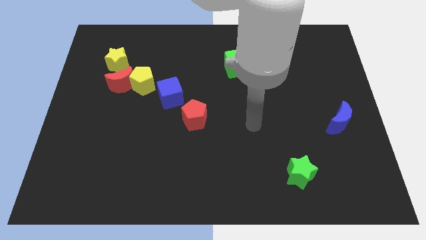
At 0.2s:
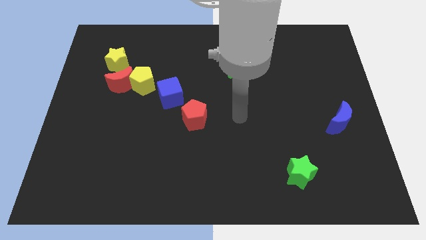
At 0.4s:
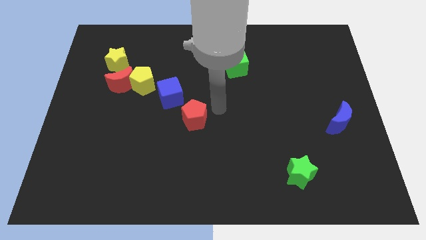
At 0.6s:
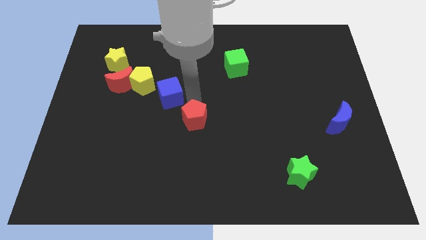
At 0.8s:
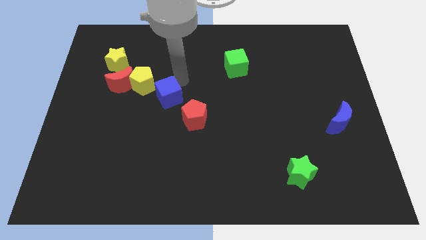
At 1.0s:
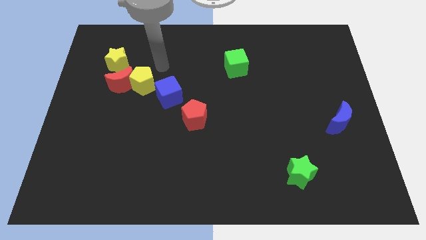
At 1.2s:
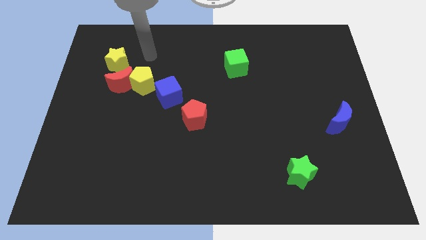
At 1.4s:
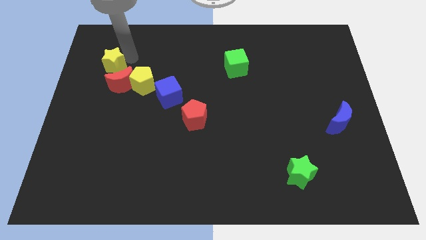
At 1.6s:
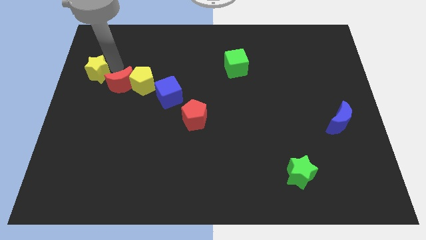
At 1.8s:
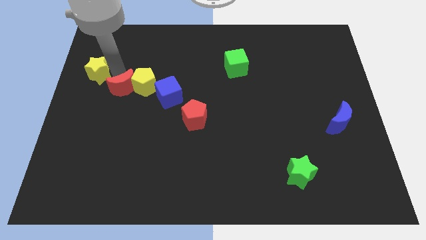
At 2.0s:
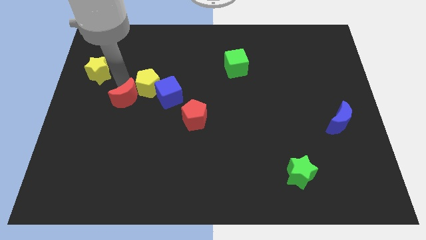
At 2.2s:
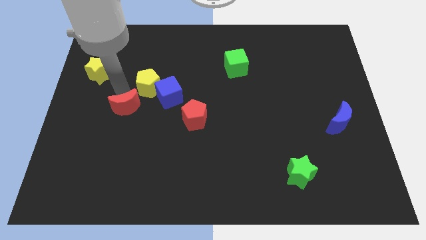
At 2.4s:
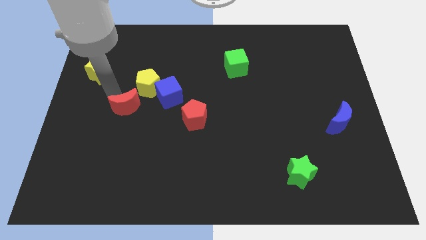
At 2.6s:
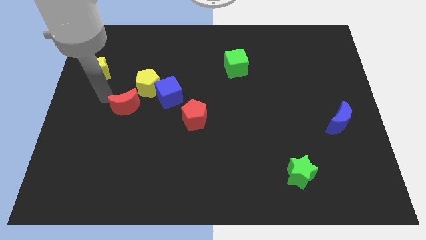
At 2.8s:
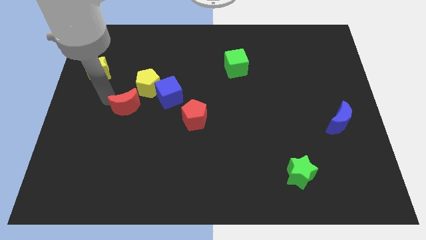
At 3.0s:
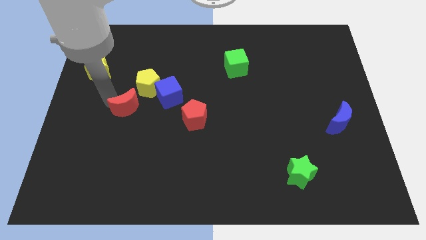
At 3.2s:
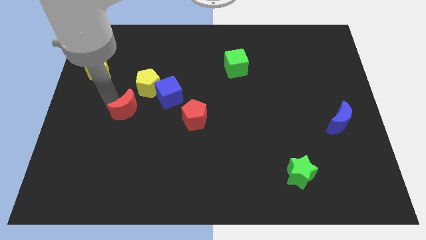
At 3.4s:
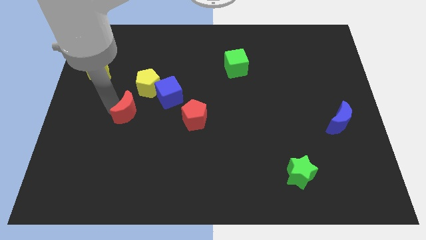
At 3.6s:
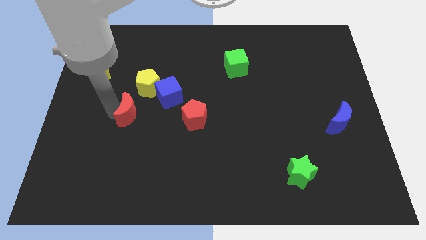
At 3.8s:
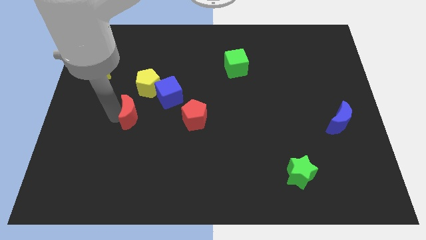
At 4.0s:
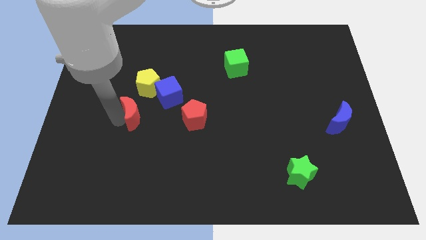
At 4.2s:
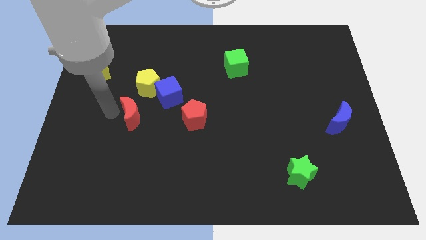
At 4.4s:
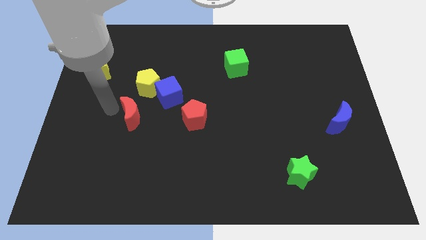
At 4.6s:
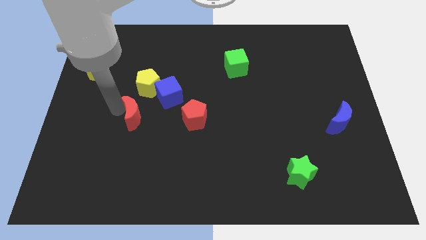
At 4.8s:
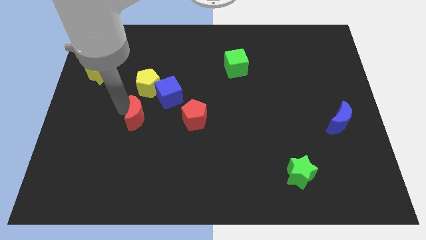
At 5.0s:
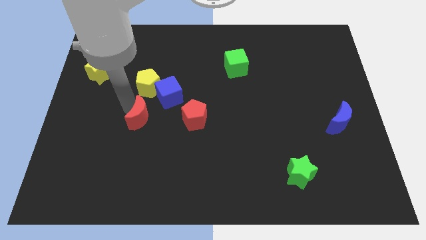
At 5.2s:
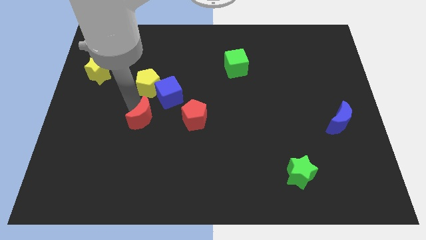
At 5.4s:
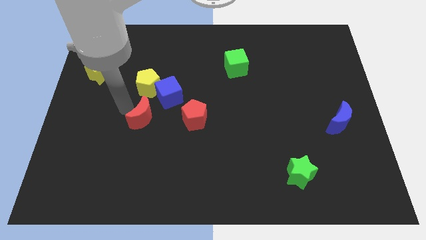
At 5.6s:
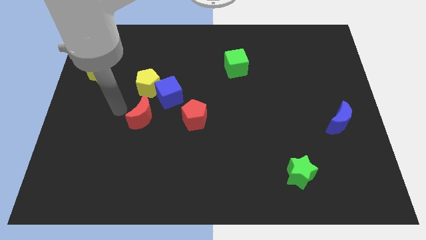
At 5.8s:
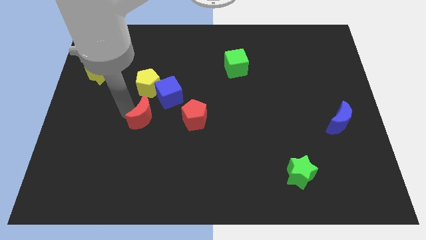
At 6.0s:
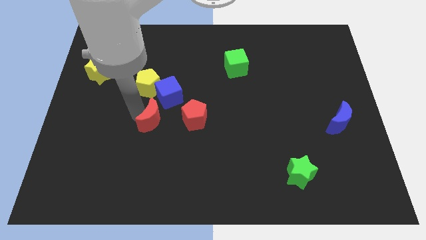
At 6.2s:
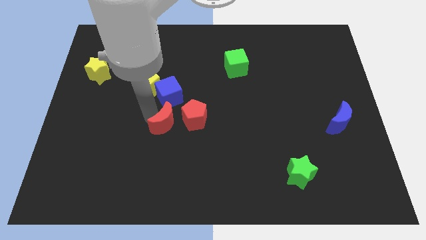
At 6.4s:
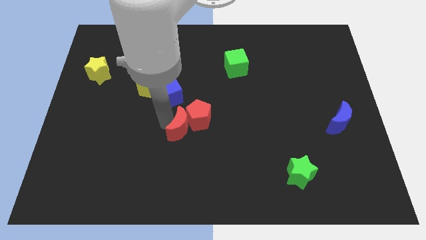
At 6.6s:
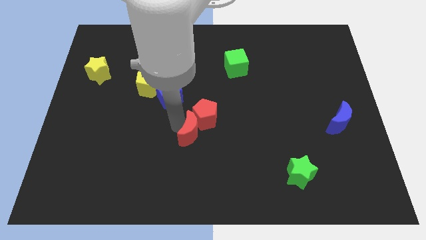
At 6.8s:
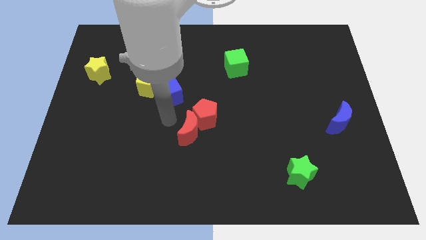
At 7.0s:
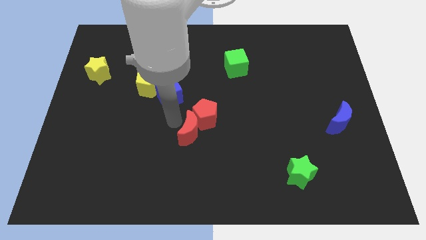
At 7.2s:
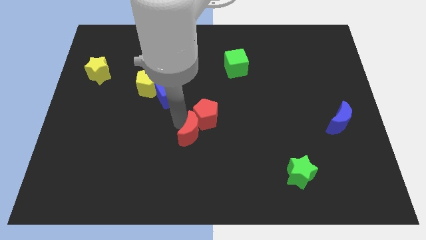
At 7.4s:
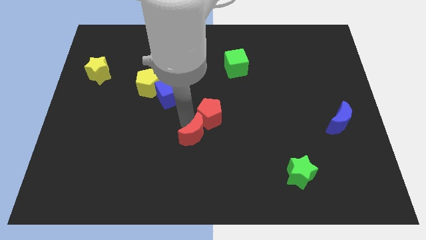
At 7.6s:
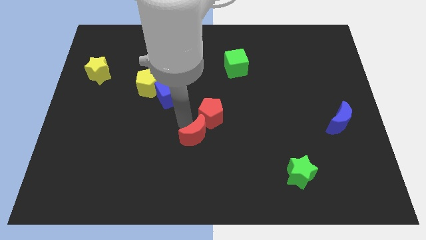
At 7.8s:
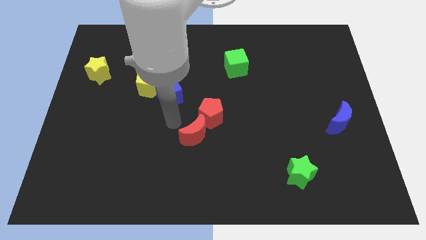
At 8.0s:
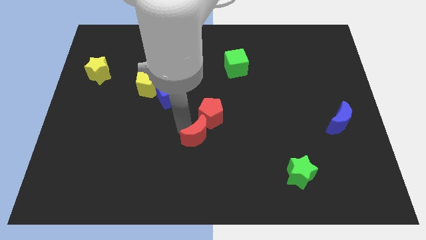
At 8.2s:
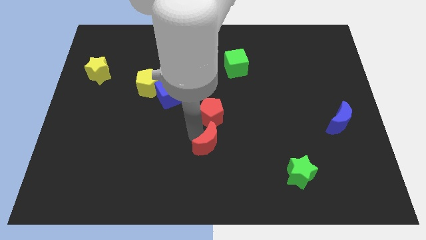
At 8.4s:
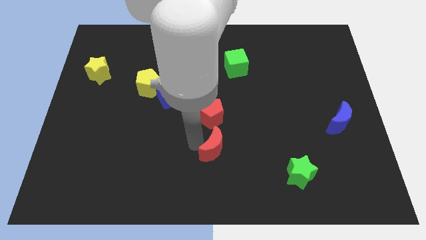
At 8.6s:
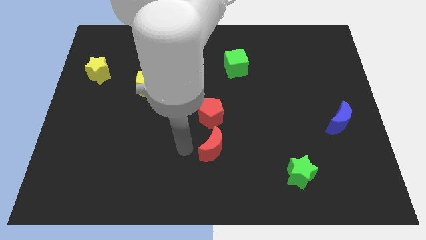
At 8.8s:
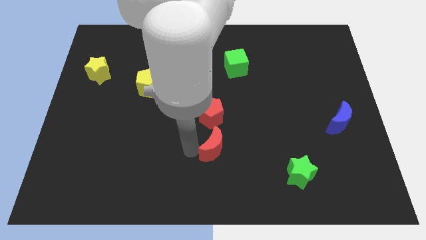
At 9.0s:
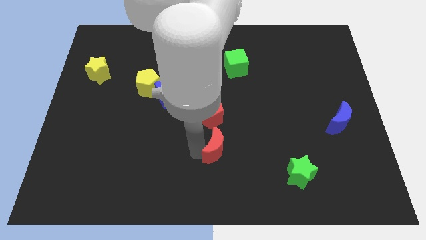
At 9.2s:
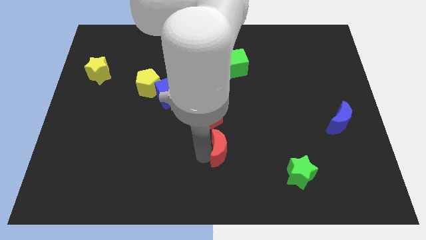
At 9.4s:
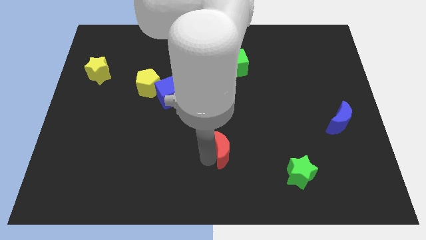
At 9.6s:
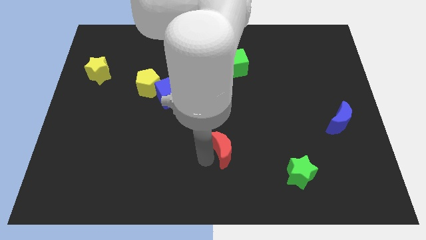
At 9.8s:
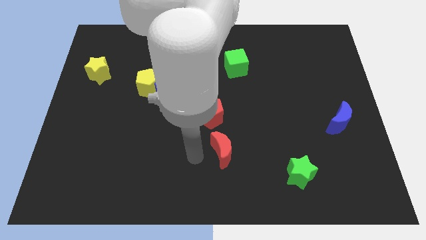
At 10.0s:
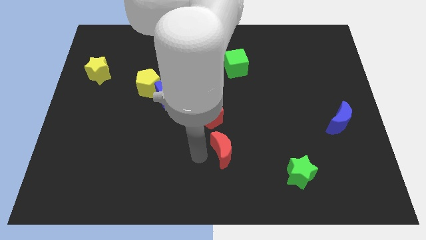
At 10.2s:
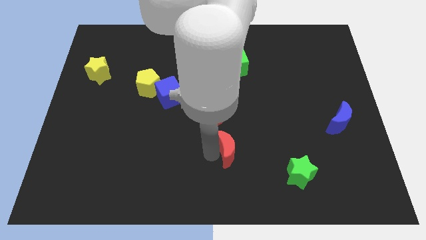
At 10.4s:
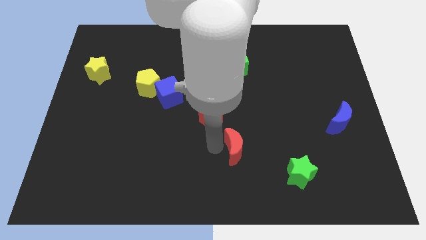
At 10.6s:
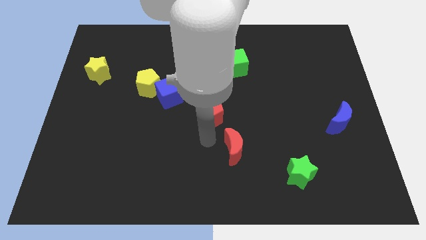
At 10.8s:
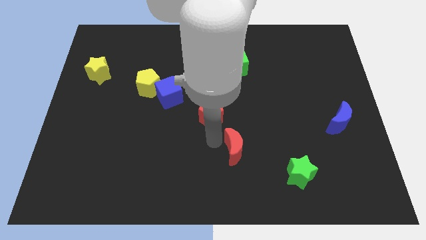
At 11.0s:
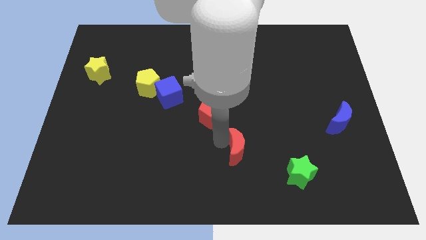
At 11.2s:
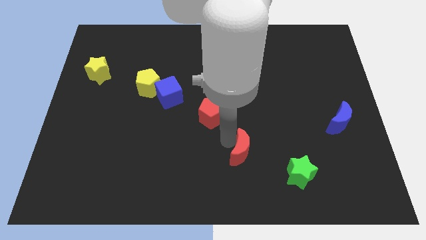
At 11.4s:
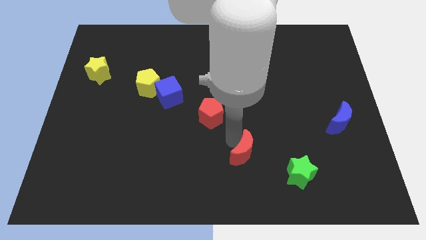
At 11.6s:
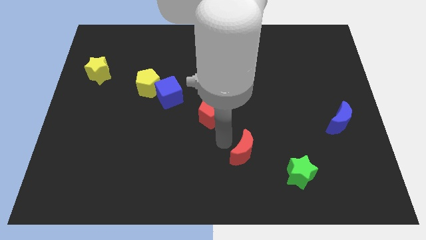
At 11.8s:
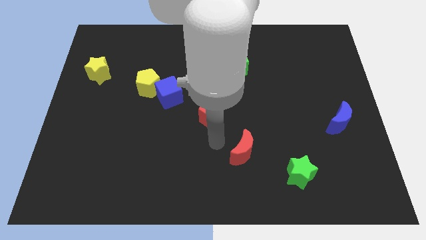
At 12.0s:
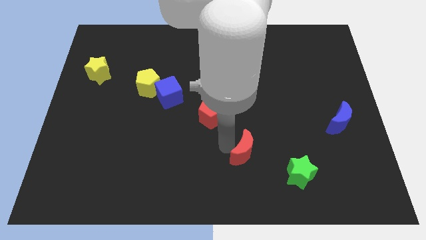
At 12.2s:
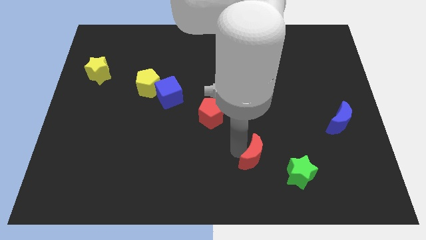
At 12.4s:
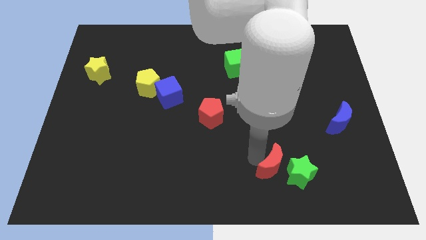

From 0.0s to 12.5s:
put the red moon next to the green star

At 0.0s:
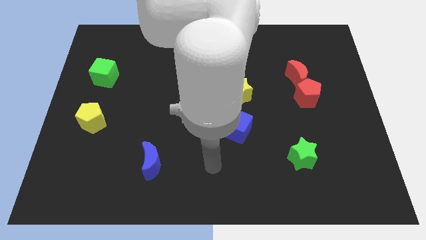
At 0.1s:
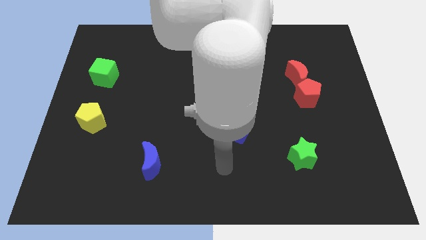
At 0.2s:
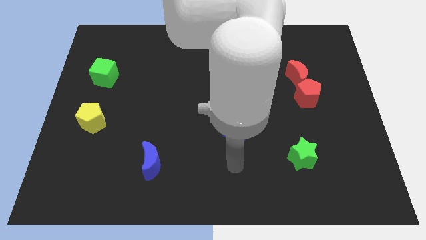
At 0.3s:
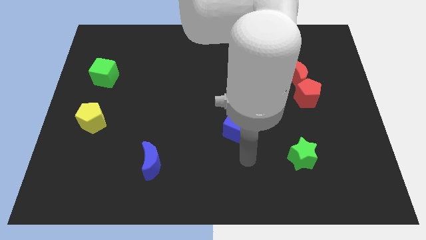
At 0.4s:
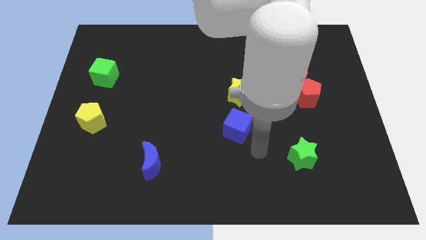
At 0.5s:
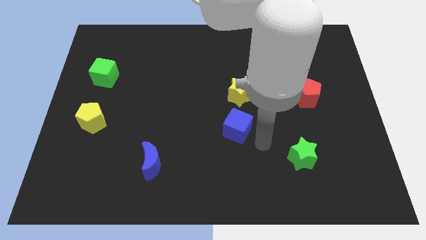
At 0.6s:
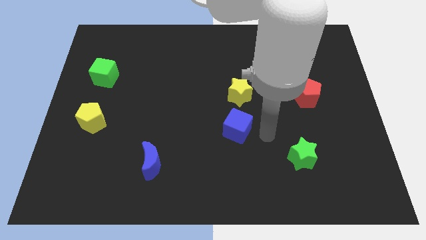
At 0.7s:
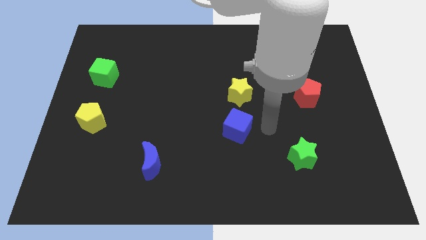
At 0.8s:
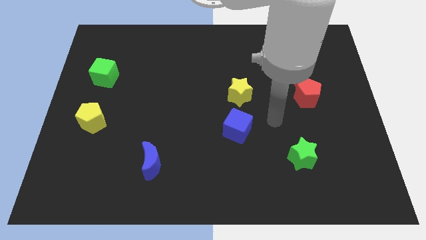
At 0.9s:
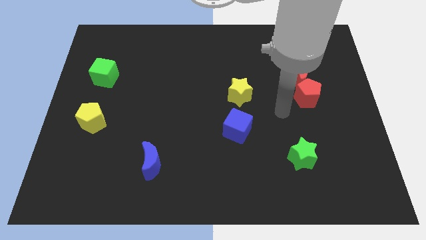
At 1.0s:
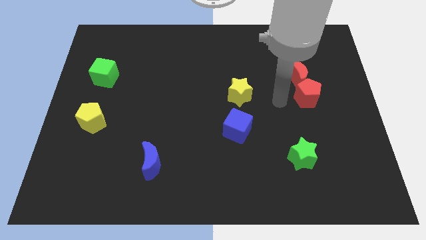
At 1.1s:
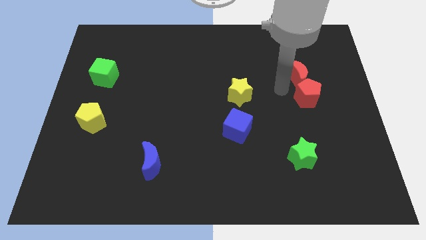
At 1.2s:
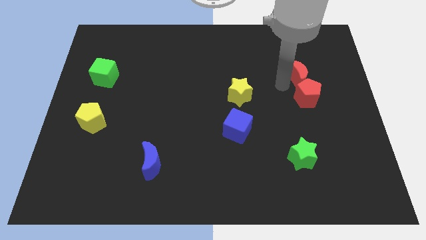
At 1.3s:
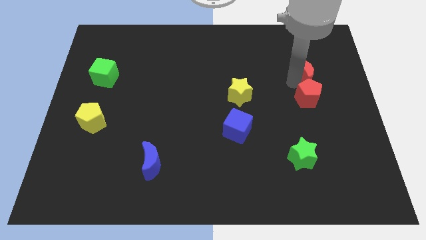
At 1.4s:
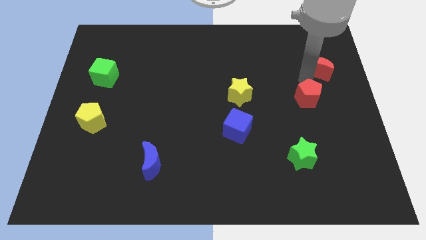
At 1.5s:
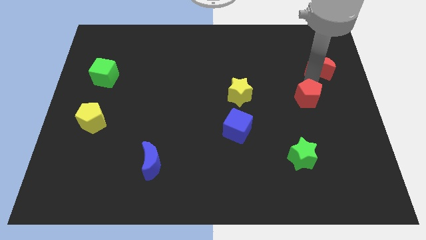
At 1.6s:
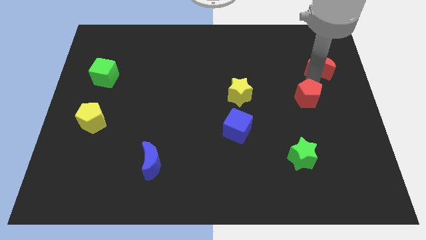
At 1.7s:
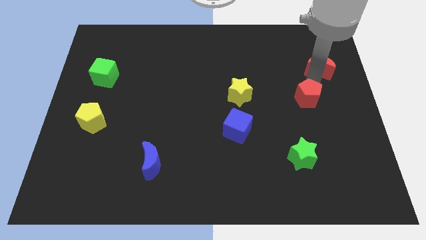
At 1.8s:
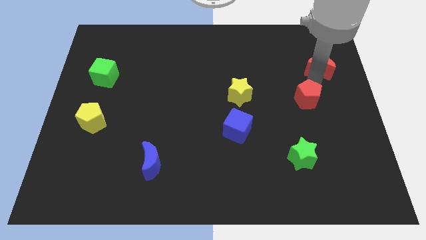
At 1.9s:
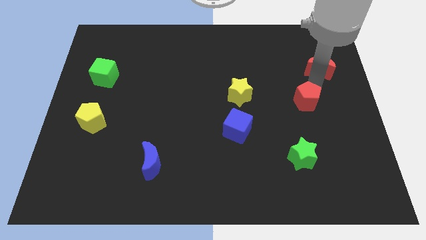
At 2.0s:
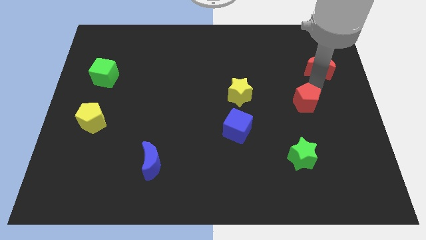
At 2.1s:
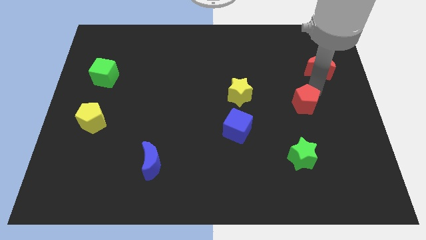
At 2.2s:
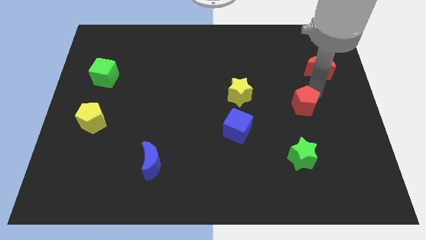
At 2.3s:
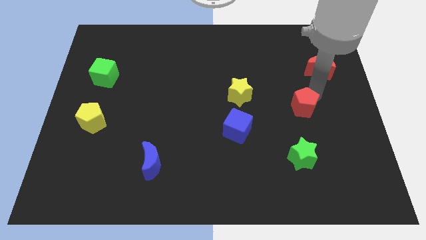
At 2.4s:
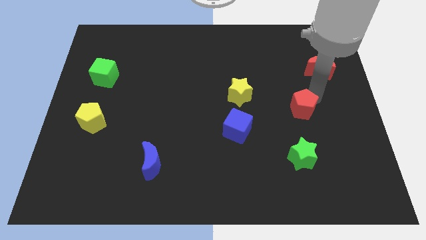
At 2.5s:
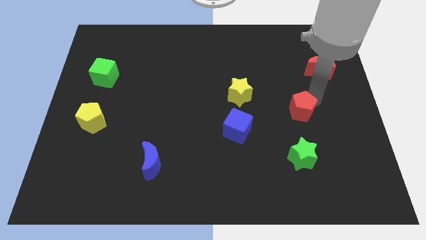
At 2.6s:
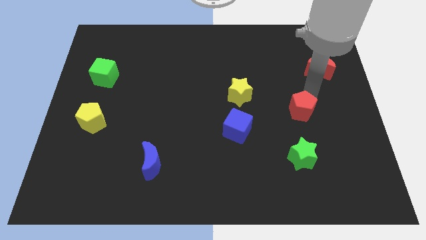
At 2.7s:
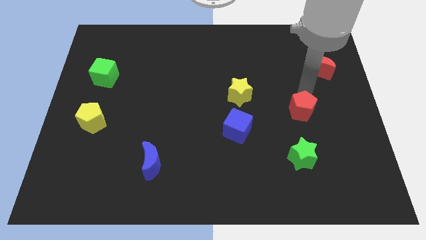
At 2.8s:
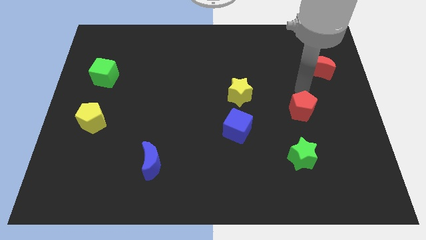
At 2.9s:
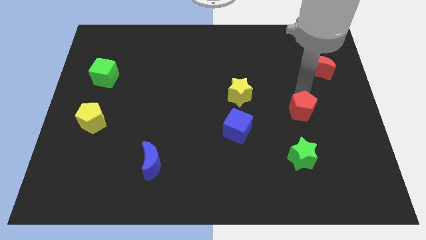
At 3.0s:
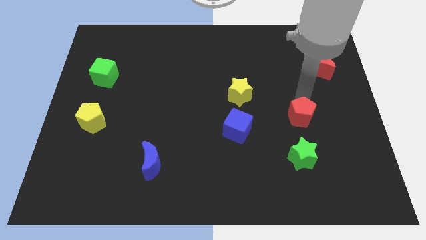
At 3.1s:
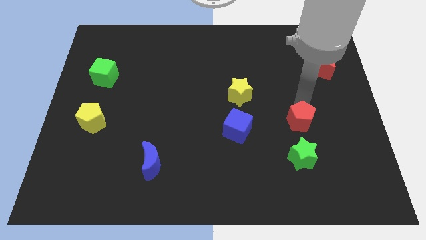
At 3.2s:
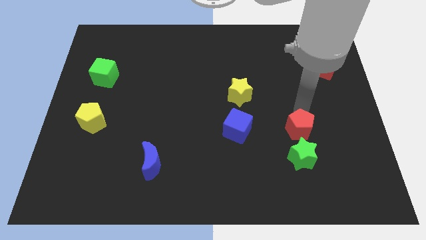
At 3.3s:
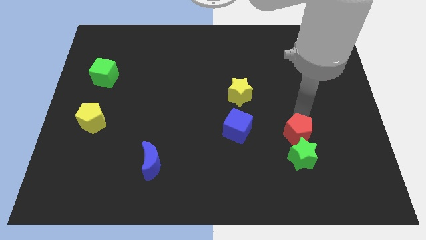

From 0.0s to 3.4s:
put the red pentagon to the green star
